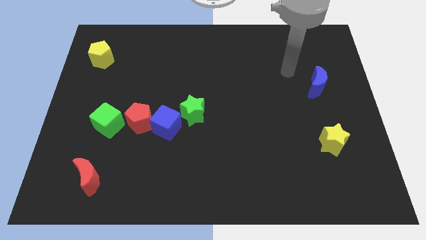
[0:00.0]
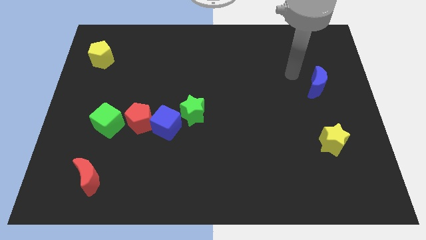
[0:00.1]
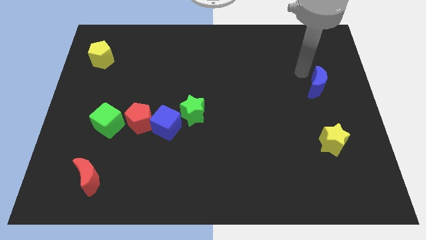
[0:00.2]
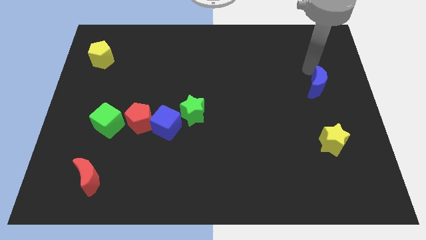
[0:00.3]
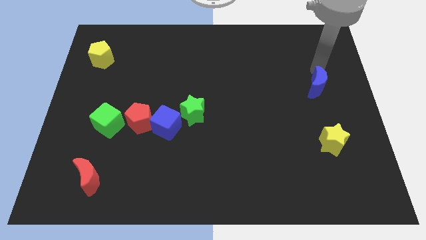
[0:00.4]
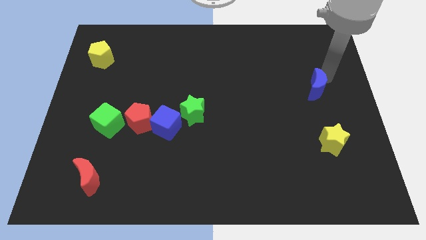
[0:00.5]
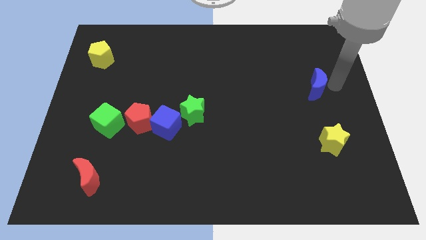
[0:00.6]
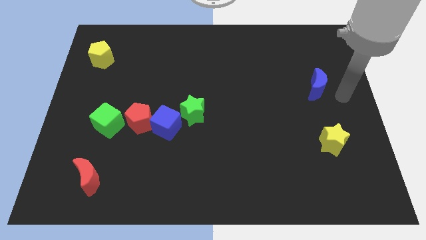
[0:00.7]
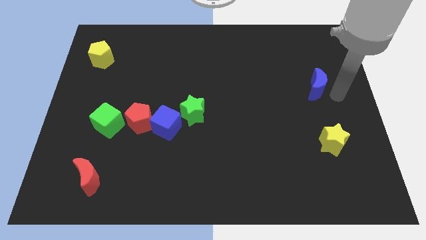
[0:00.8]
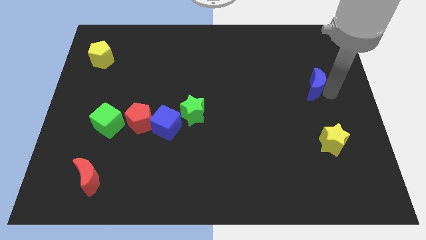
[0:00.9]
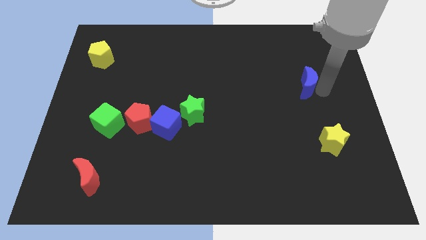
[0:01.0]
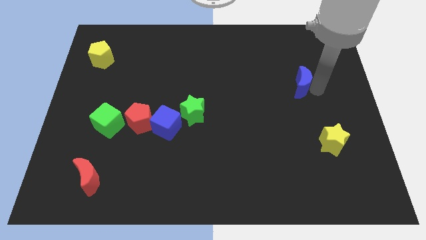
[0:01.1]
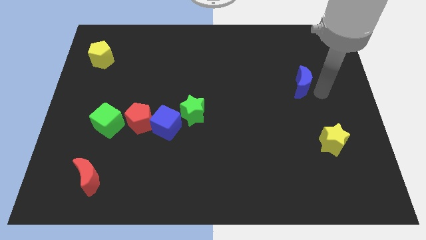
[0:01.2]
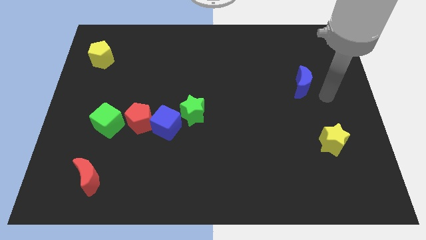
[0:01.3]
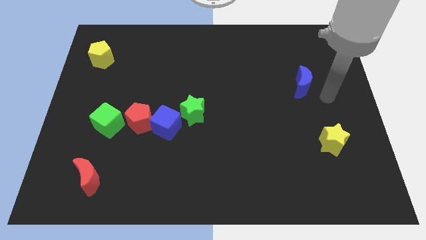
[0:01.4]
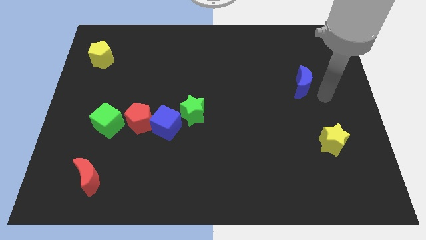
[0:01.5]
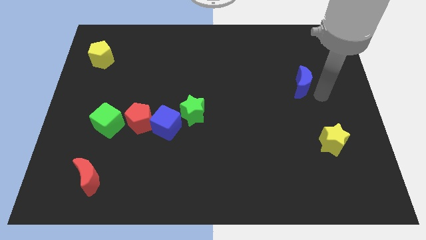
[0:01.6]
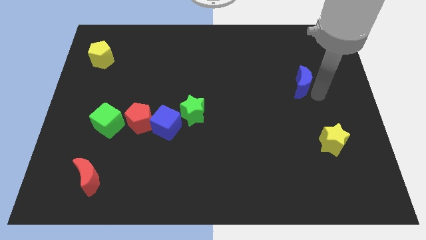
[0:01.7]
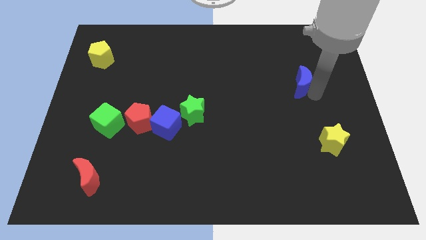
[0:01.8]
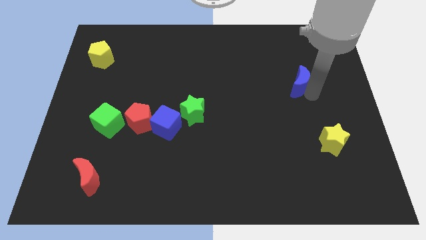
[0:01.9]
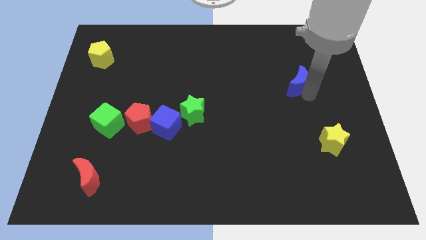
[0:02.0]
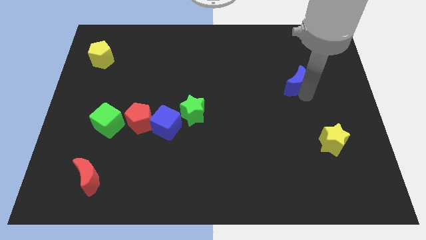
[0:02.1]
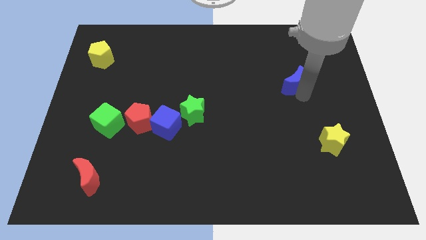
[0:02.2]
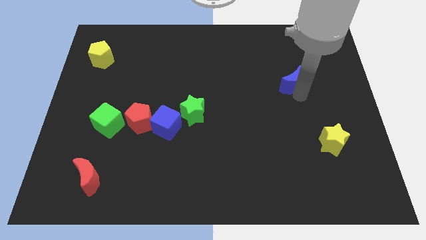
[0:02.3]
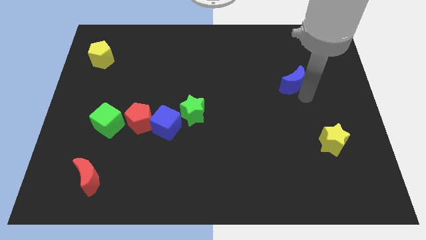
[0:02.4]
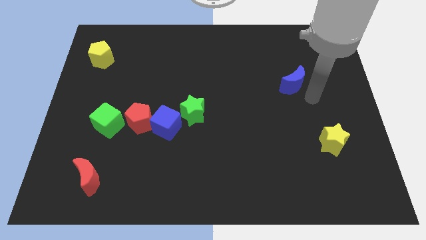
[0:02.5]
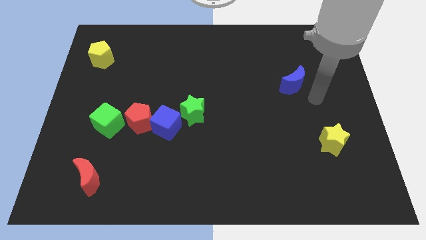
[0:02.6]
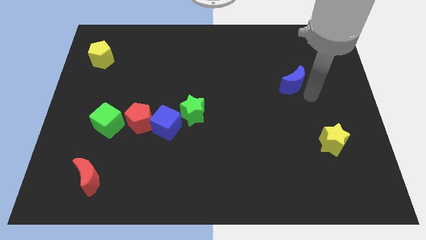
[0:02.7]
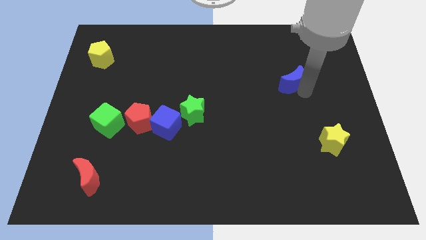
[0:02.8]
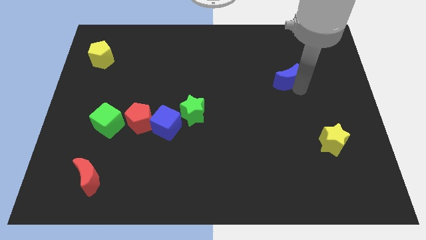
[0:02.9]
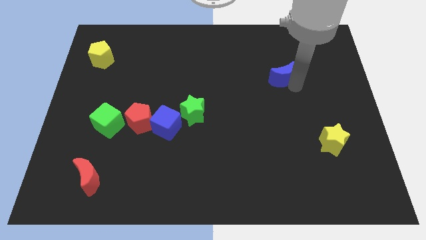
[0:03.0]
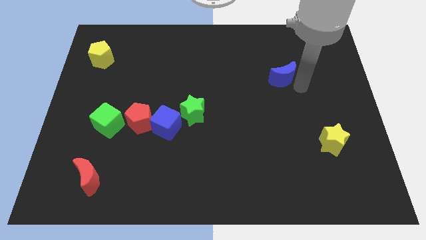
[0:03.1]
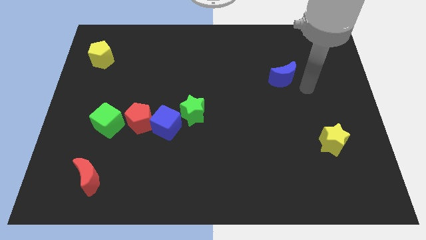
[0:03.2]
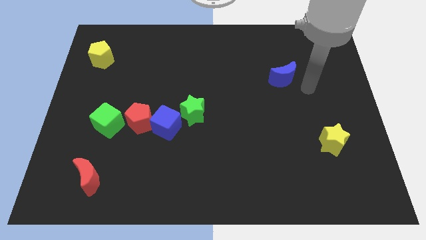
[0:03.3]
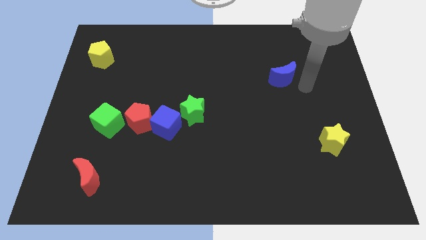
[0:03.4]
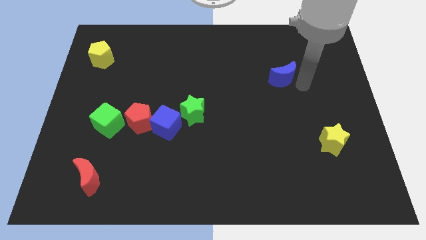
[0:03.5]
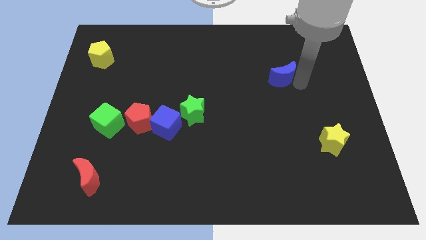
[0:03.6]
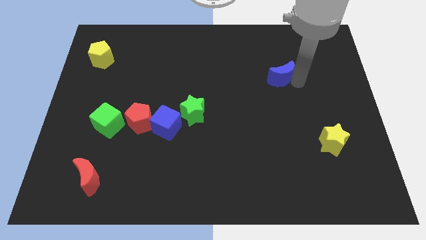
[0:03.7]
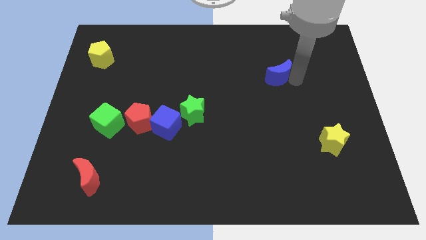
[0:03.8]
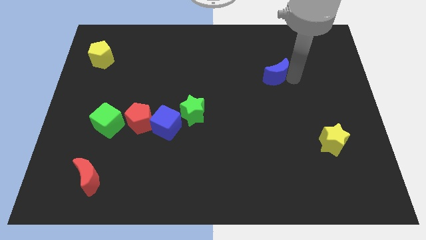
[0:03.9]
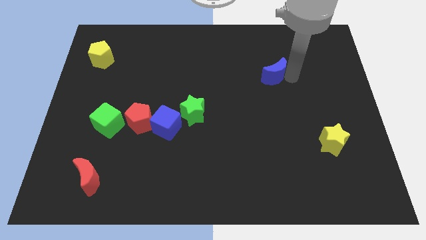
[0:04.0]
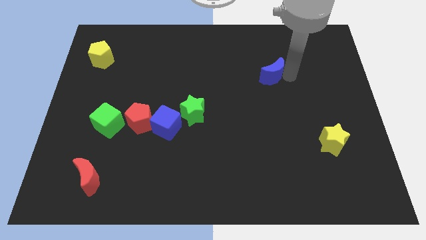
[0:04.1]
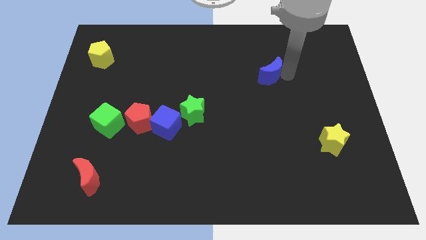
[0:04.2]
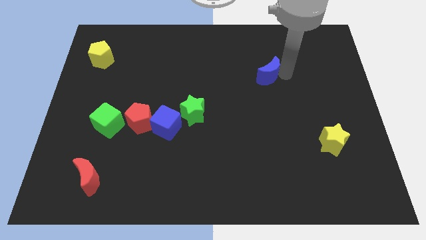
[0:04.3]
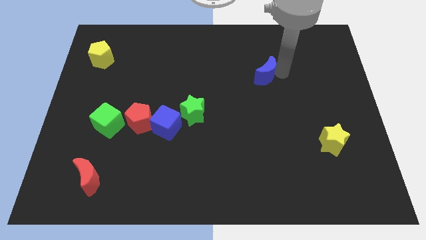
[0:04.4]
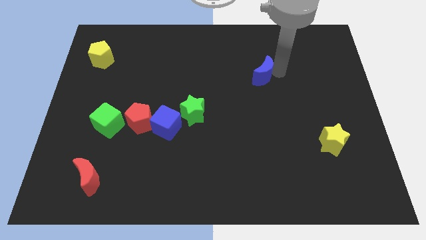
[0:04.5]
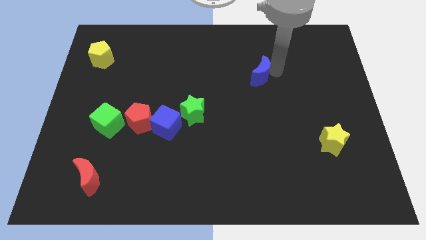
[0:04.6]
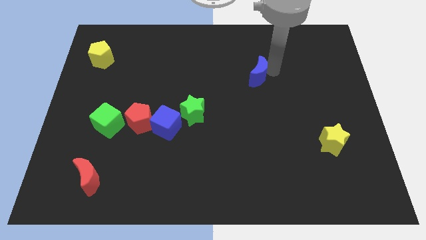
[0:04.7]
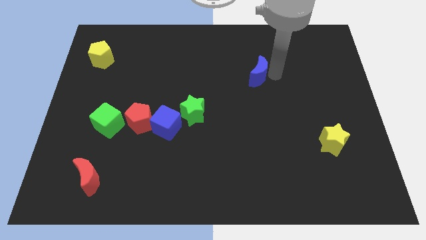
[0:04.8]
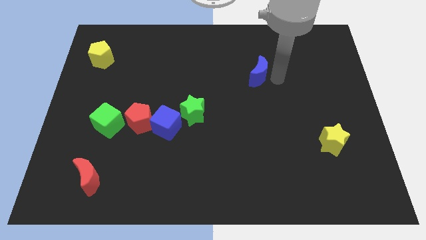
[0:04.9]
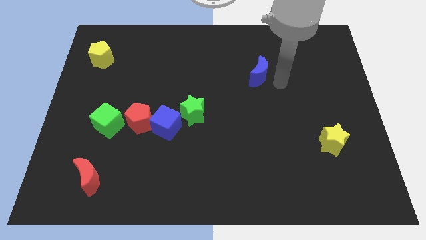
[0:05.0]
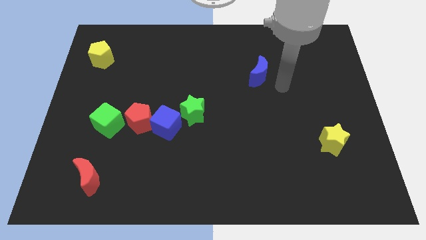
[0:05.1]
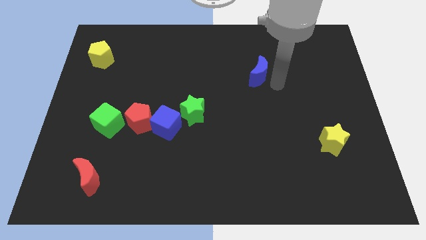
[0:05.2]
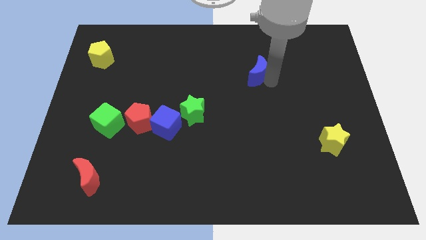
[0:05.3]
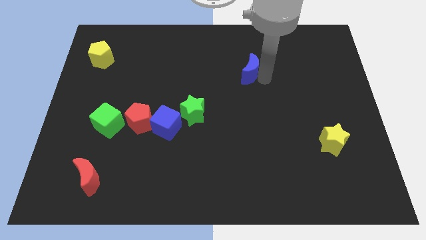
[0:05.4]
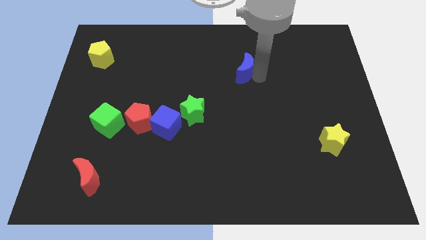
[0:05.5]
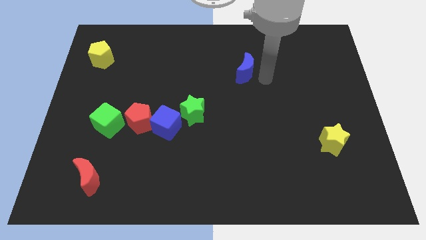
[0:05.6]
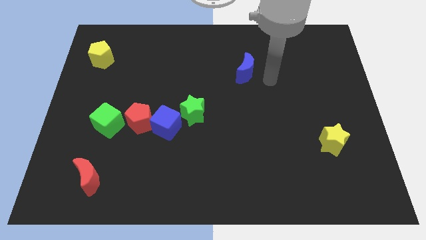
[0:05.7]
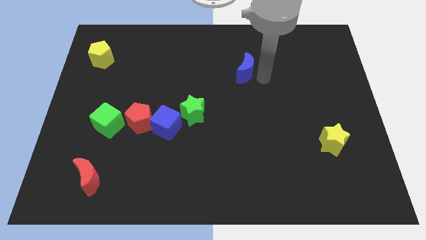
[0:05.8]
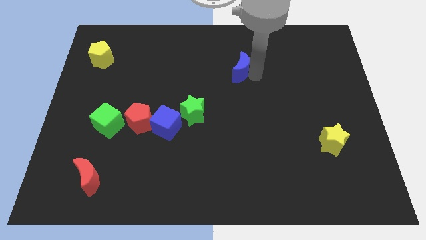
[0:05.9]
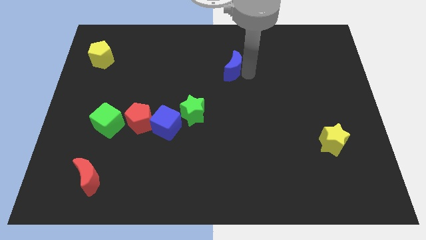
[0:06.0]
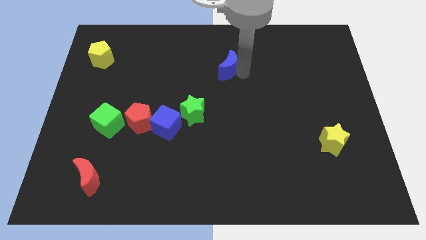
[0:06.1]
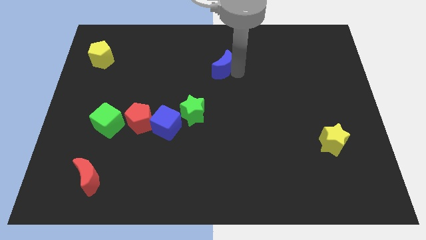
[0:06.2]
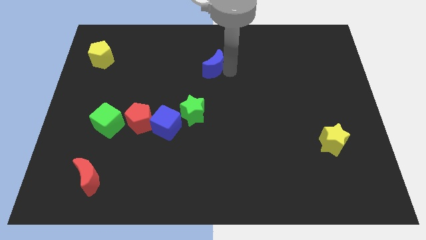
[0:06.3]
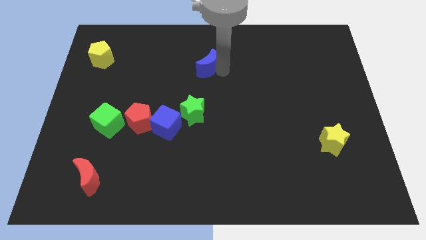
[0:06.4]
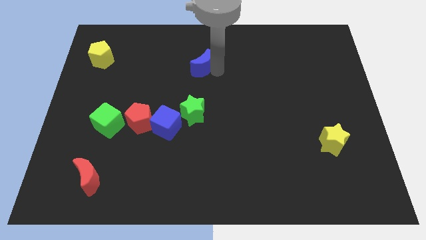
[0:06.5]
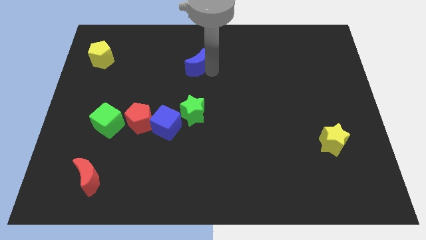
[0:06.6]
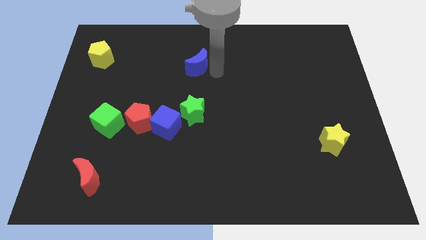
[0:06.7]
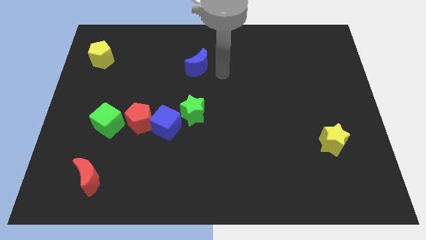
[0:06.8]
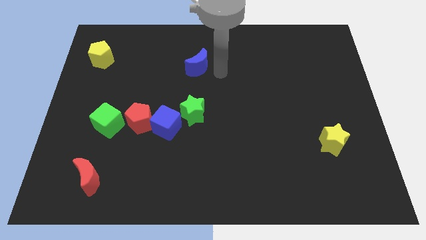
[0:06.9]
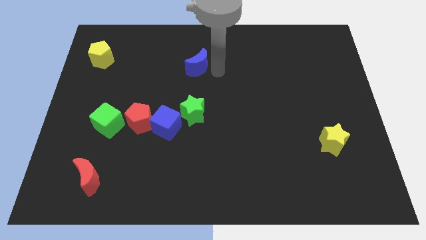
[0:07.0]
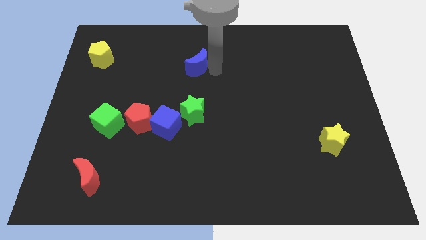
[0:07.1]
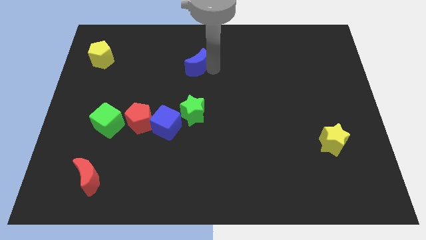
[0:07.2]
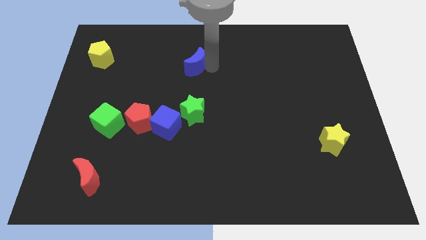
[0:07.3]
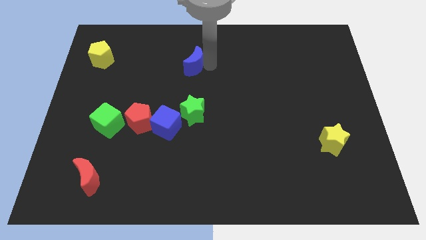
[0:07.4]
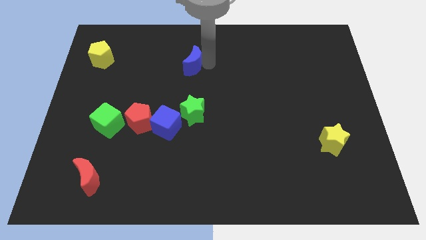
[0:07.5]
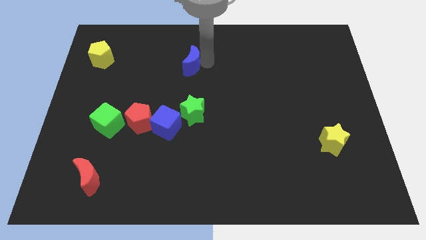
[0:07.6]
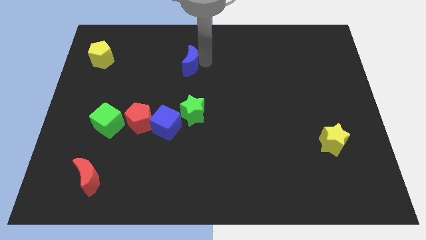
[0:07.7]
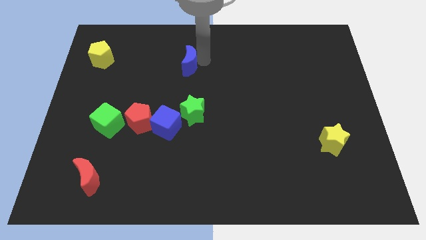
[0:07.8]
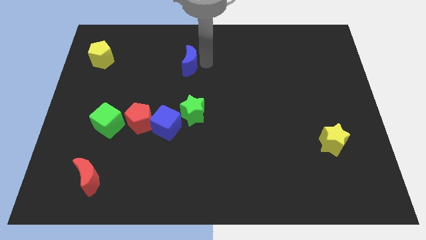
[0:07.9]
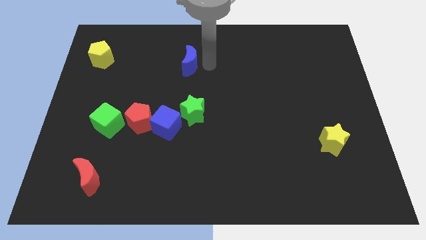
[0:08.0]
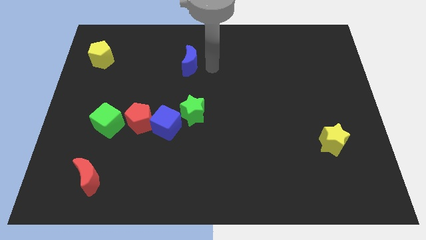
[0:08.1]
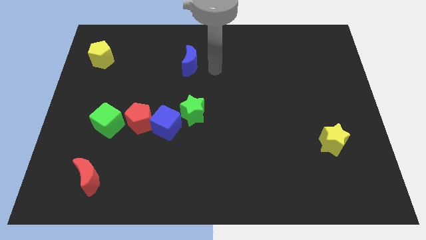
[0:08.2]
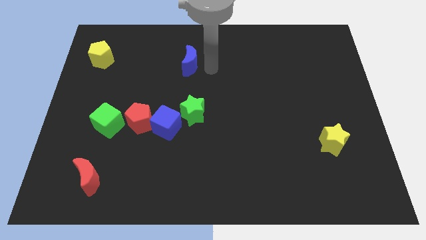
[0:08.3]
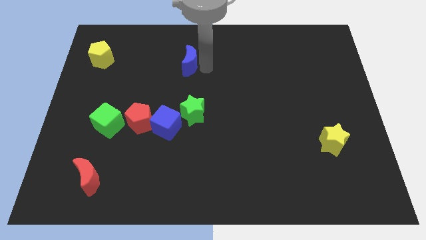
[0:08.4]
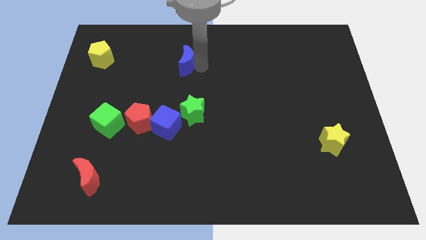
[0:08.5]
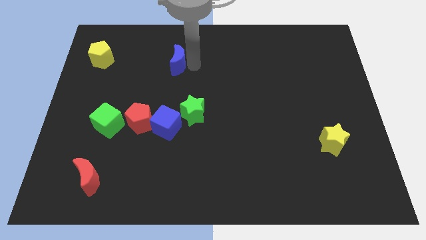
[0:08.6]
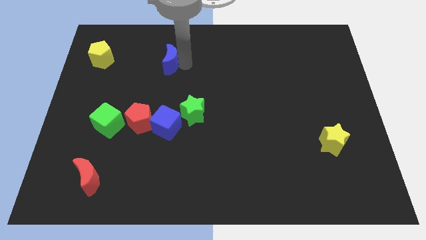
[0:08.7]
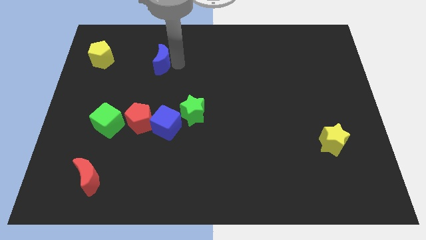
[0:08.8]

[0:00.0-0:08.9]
move the blue moon to the right of the yellow pentagon
